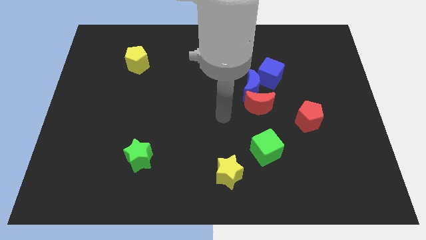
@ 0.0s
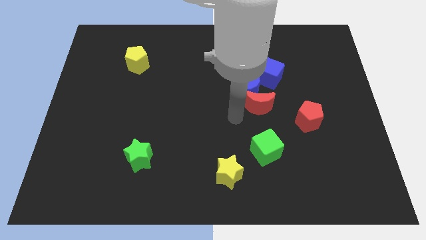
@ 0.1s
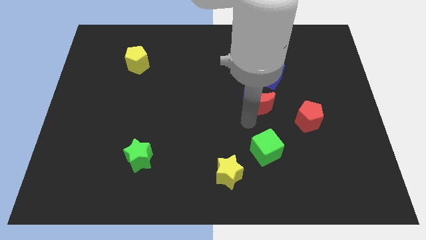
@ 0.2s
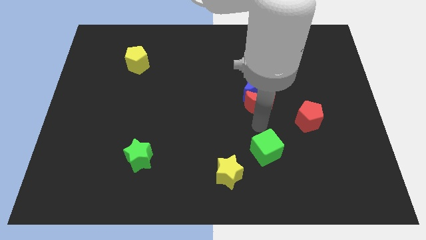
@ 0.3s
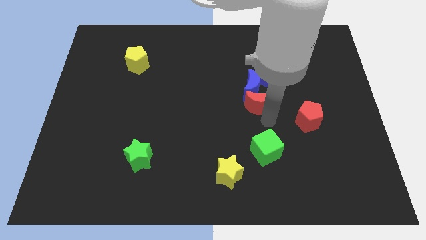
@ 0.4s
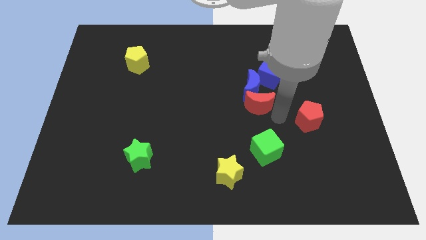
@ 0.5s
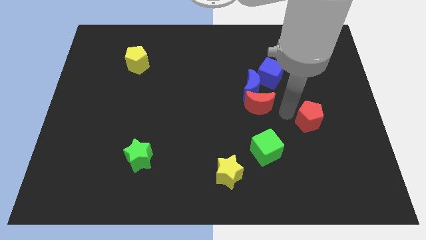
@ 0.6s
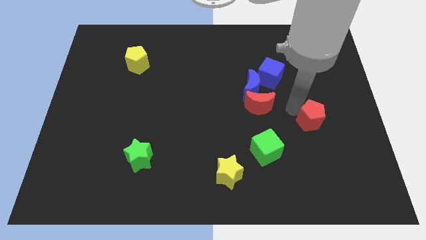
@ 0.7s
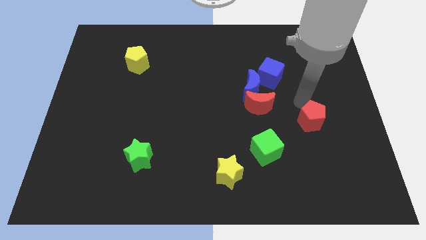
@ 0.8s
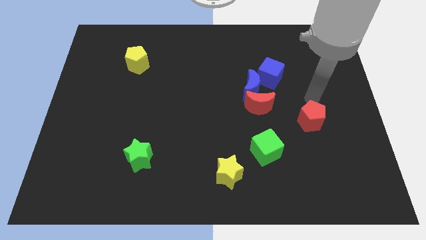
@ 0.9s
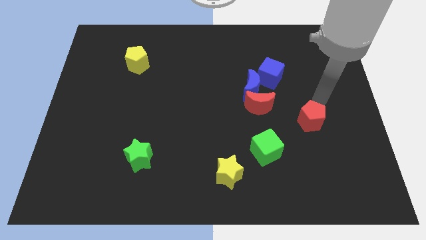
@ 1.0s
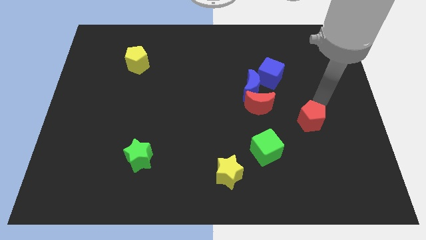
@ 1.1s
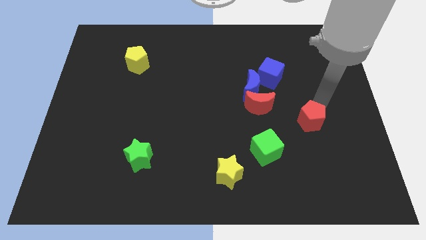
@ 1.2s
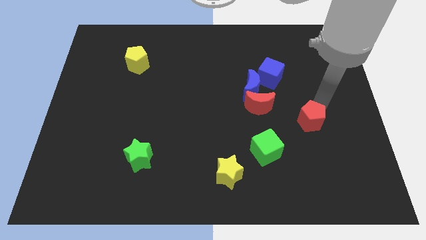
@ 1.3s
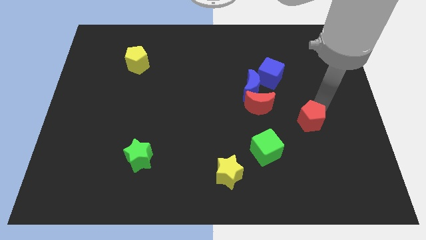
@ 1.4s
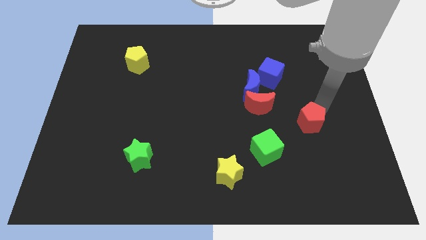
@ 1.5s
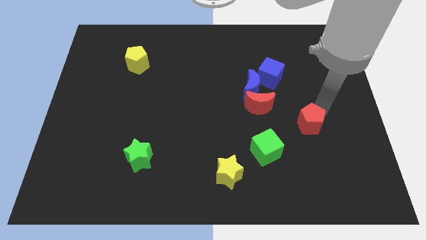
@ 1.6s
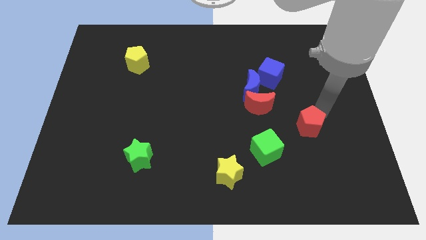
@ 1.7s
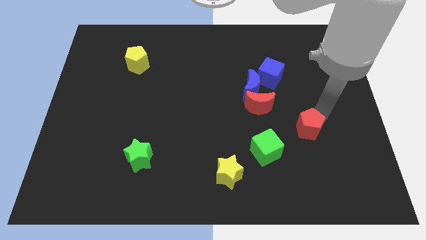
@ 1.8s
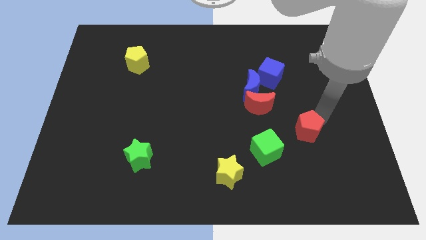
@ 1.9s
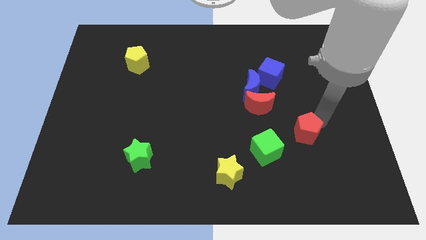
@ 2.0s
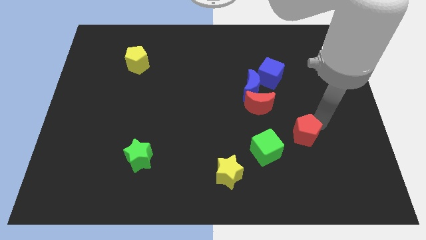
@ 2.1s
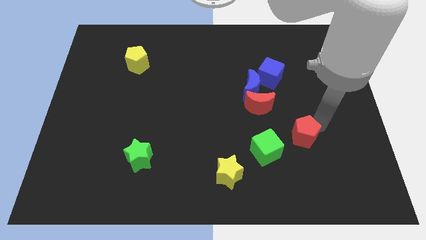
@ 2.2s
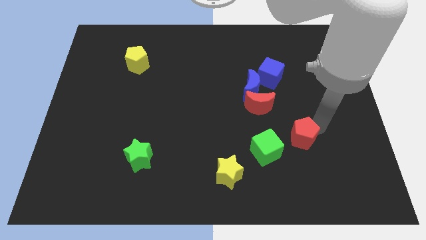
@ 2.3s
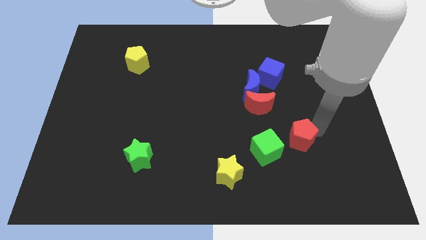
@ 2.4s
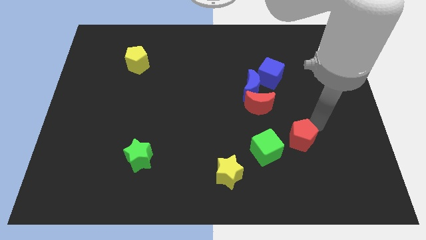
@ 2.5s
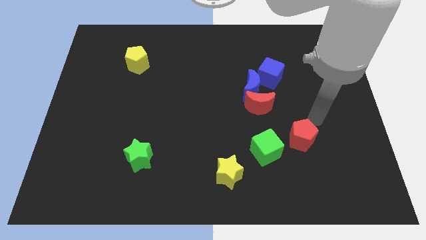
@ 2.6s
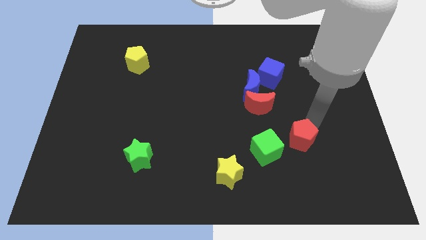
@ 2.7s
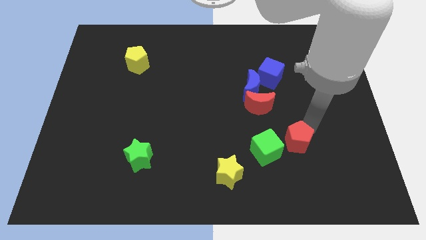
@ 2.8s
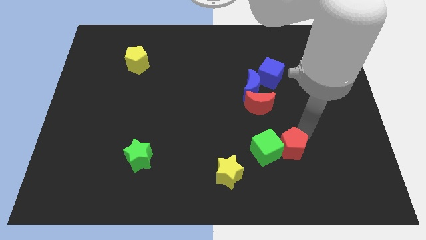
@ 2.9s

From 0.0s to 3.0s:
slightly move the red pentagon down and to the left

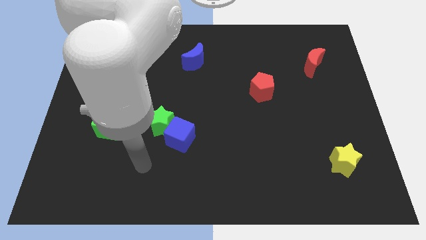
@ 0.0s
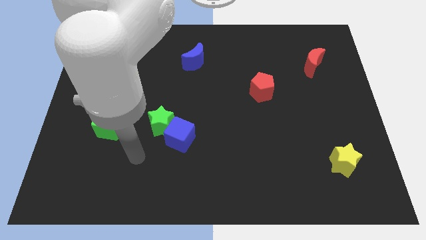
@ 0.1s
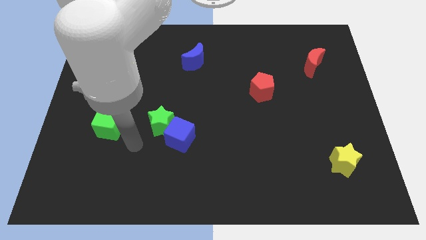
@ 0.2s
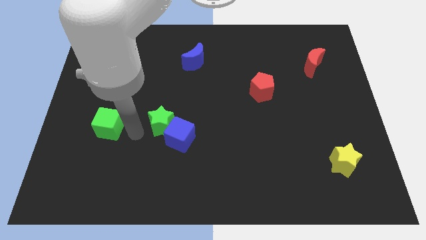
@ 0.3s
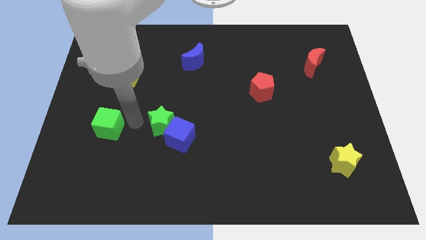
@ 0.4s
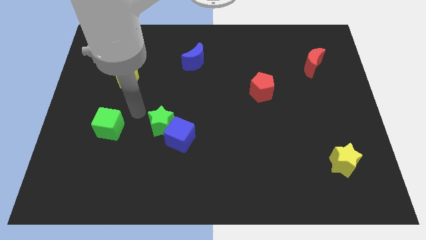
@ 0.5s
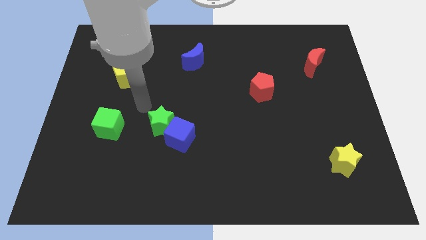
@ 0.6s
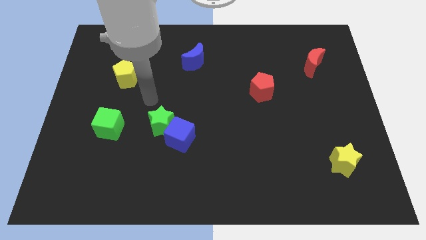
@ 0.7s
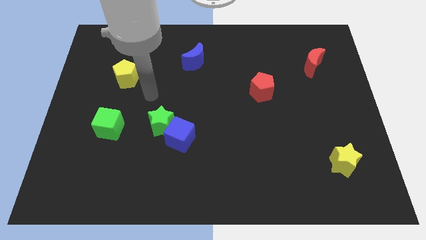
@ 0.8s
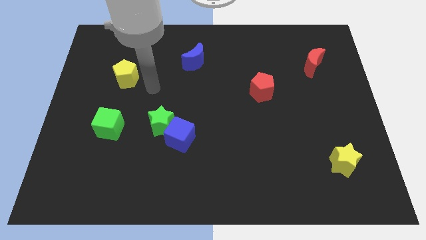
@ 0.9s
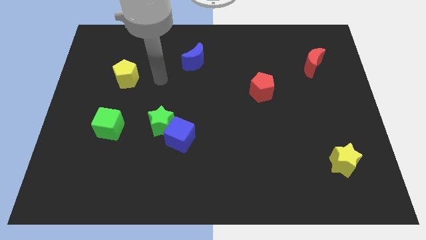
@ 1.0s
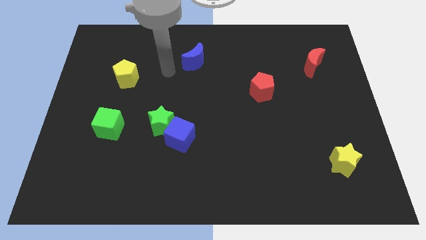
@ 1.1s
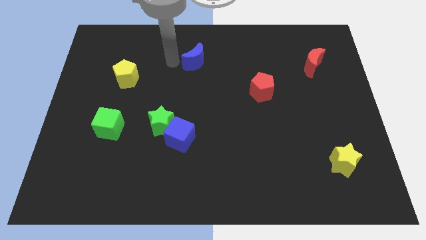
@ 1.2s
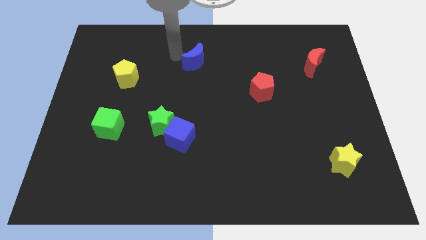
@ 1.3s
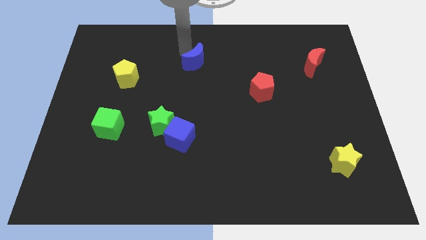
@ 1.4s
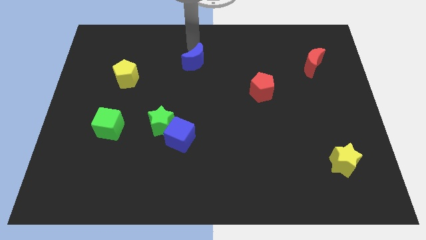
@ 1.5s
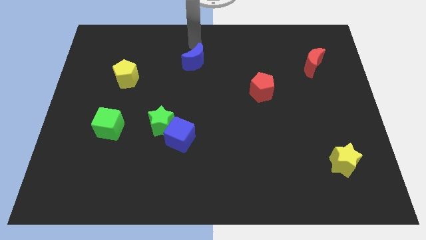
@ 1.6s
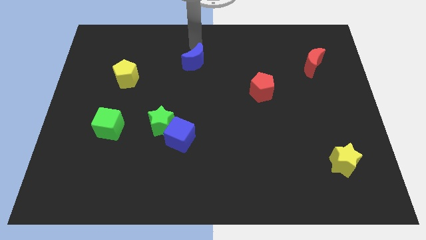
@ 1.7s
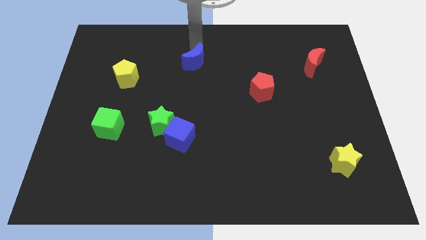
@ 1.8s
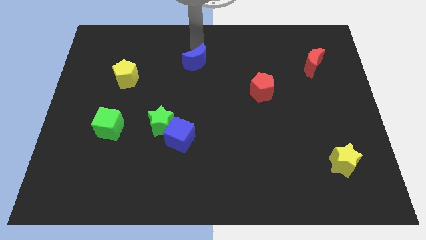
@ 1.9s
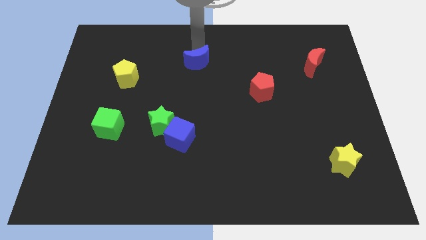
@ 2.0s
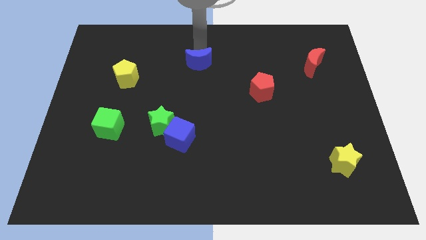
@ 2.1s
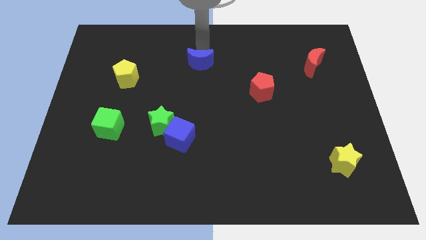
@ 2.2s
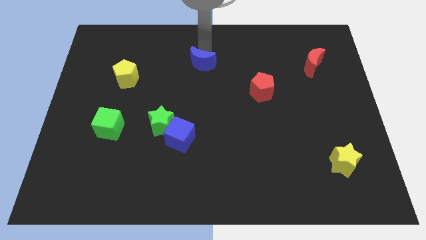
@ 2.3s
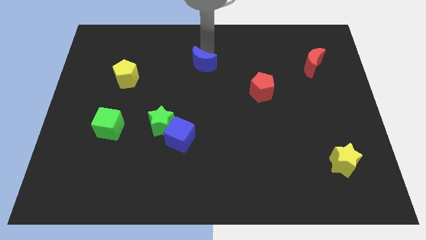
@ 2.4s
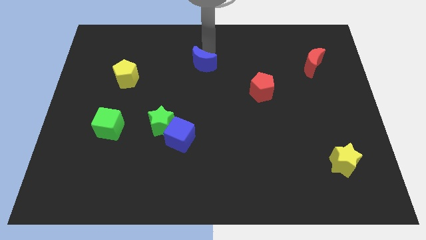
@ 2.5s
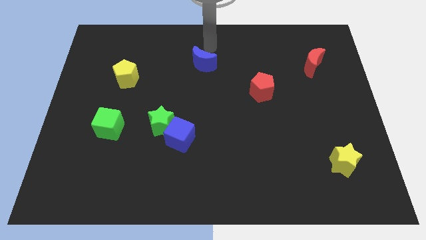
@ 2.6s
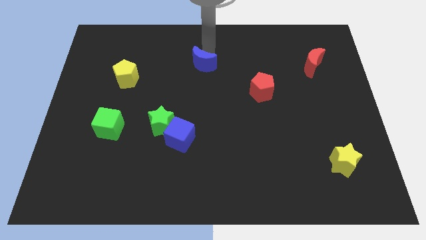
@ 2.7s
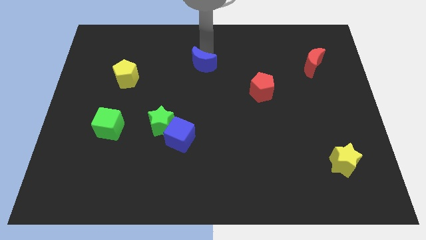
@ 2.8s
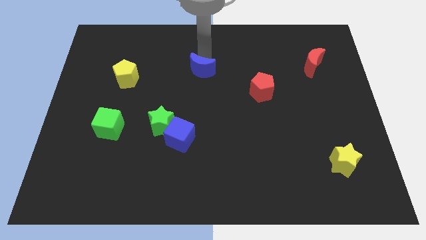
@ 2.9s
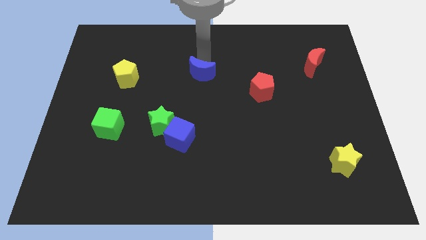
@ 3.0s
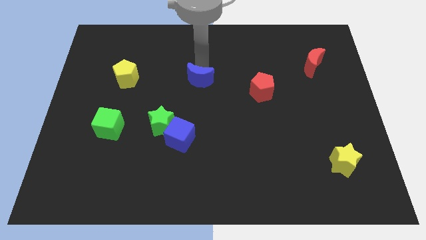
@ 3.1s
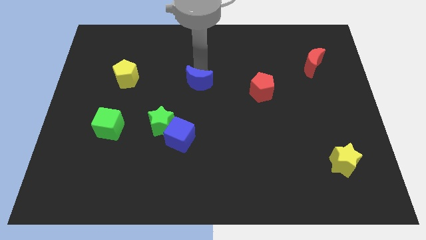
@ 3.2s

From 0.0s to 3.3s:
move the blue moon down somewhat

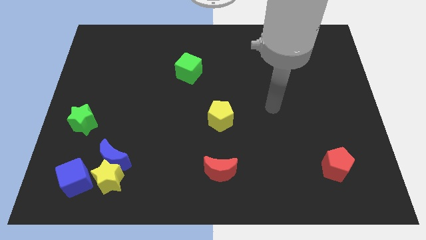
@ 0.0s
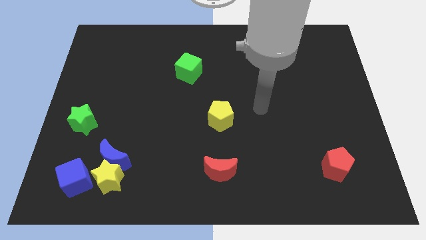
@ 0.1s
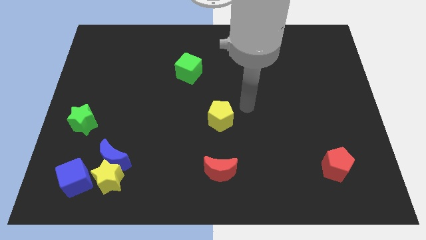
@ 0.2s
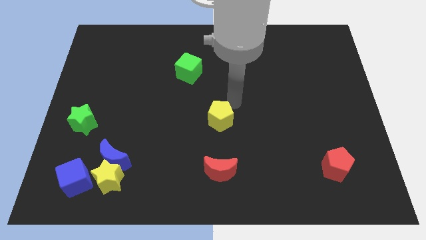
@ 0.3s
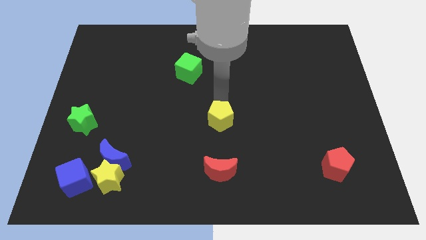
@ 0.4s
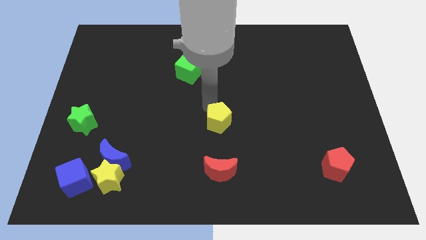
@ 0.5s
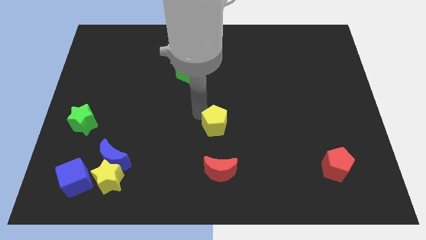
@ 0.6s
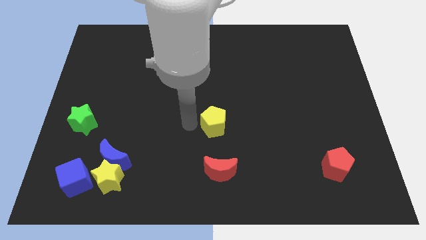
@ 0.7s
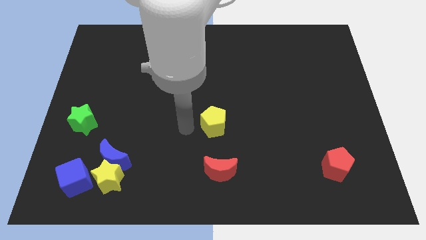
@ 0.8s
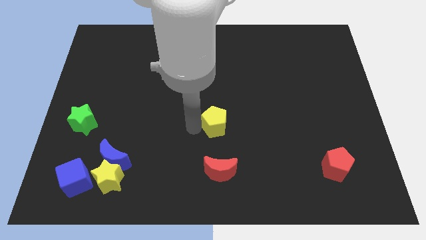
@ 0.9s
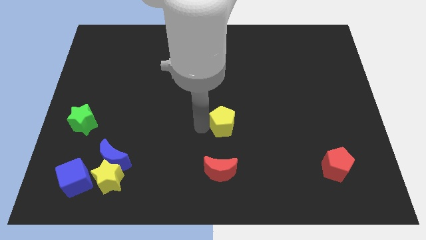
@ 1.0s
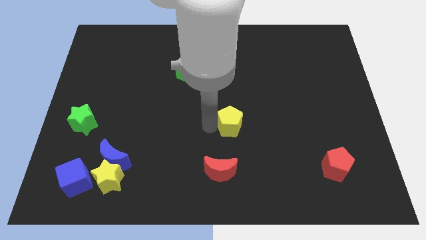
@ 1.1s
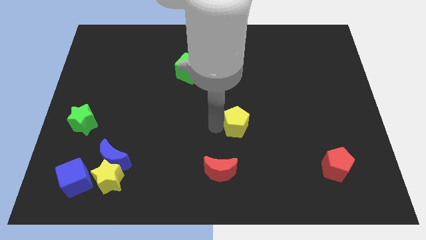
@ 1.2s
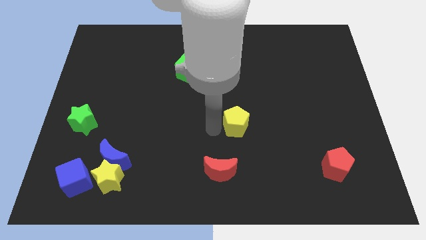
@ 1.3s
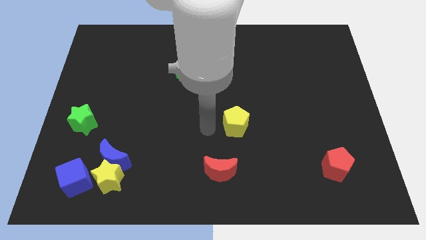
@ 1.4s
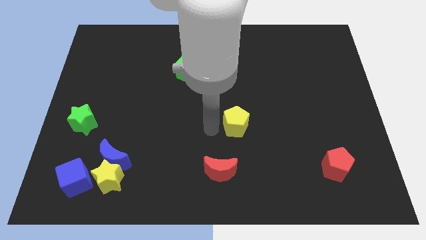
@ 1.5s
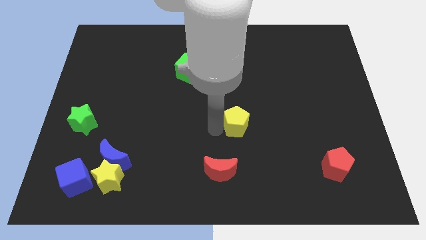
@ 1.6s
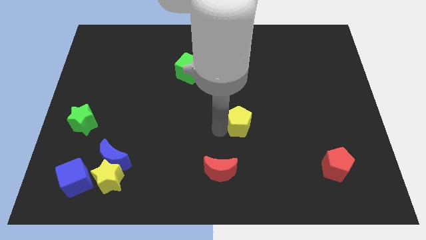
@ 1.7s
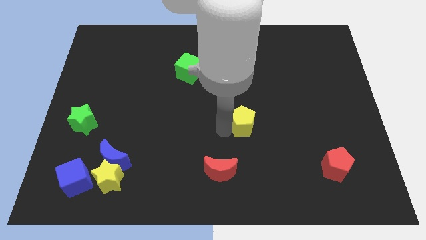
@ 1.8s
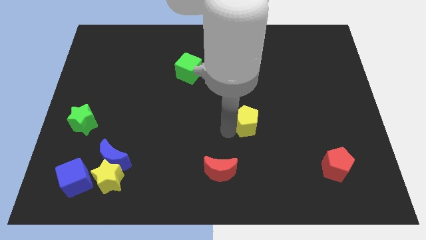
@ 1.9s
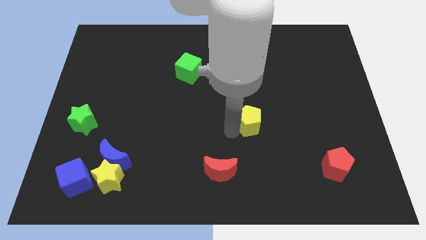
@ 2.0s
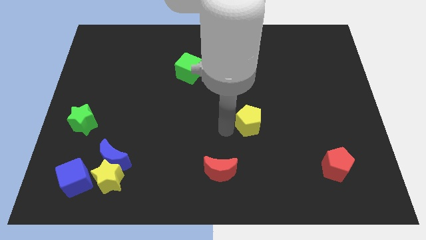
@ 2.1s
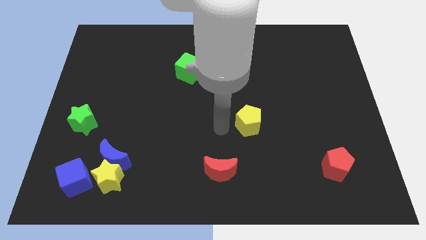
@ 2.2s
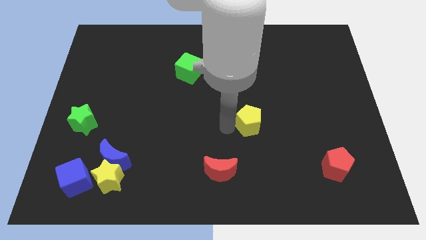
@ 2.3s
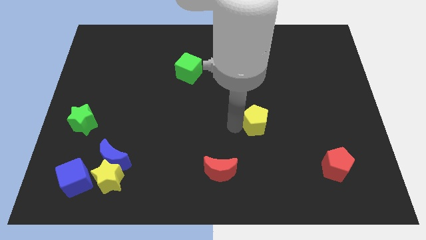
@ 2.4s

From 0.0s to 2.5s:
slide the yellow pentagon somewhat right
